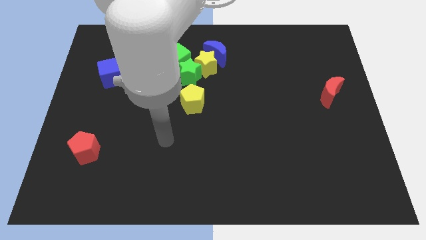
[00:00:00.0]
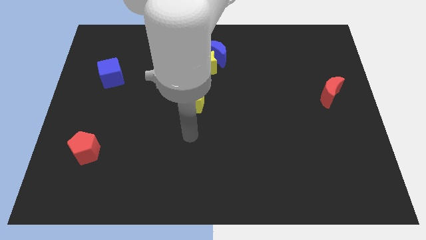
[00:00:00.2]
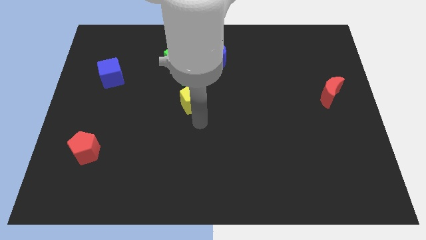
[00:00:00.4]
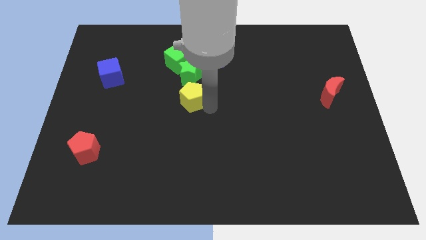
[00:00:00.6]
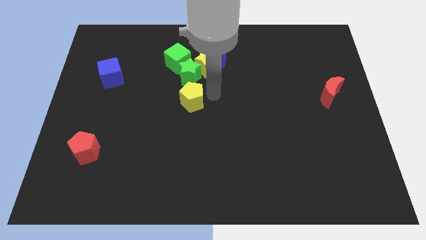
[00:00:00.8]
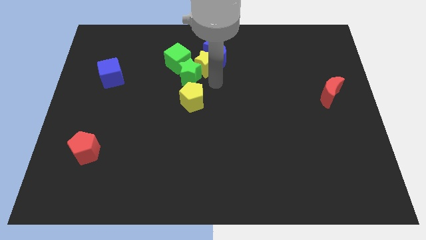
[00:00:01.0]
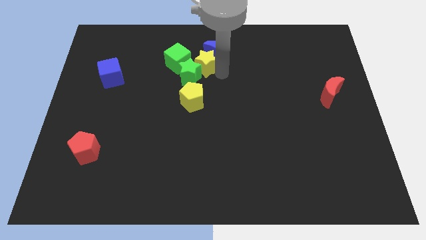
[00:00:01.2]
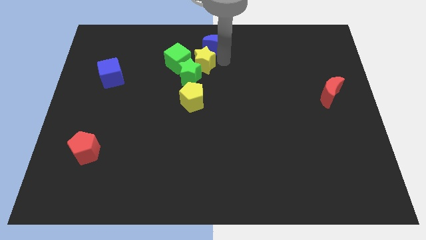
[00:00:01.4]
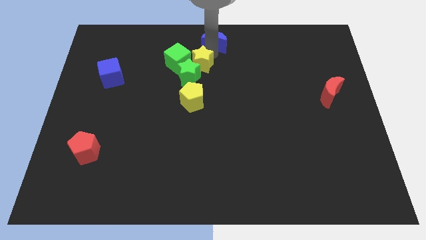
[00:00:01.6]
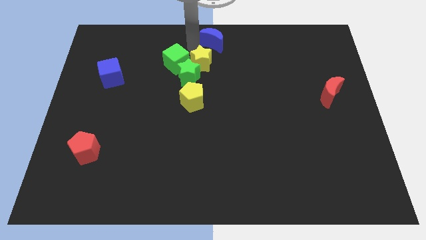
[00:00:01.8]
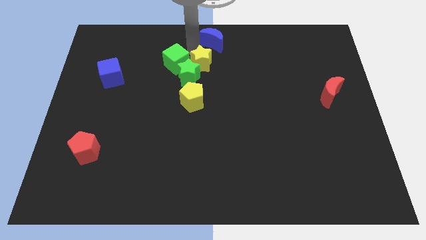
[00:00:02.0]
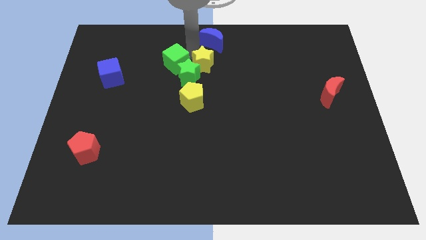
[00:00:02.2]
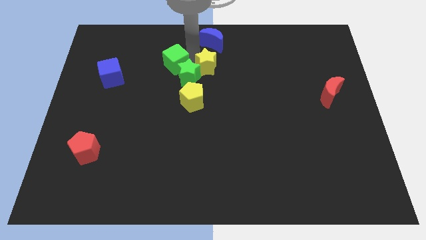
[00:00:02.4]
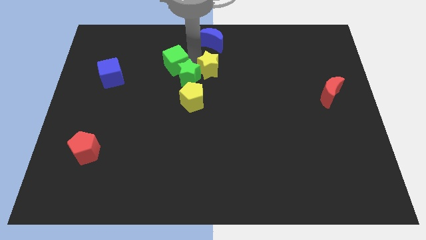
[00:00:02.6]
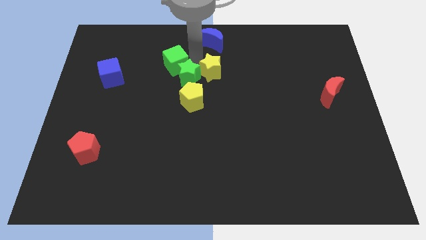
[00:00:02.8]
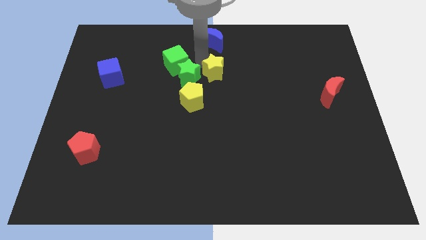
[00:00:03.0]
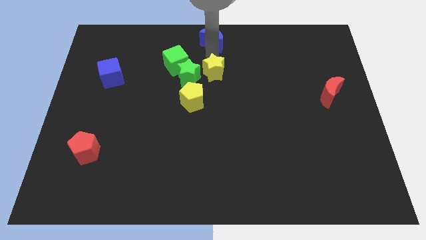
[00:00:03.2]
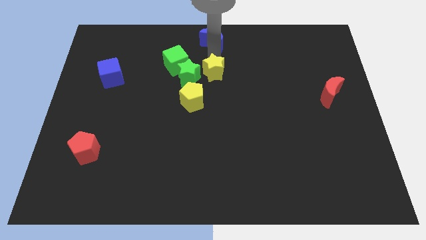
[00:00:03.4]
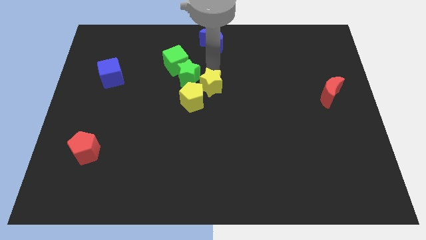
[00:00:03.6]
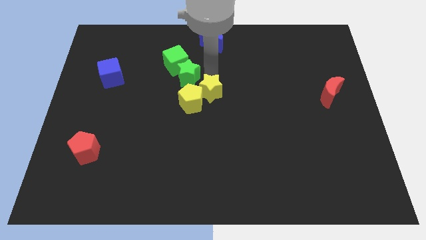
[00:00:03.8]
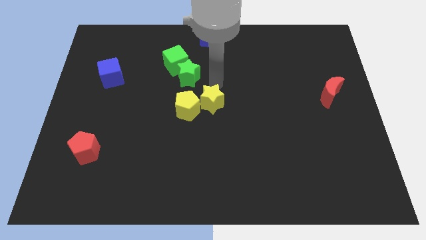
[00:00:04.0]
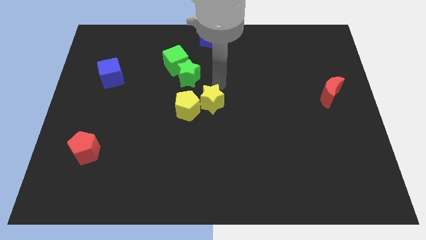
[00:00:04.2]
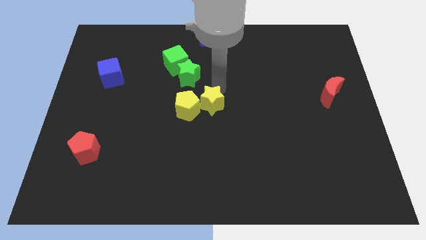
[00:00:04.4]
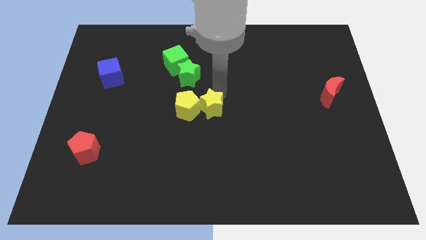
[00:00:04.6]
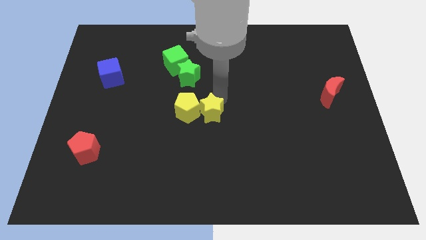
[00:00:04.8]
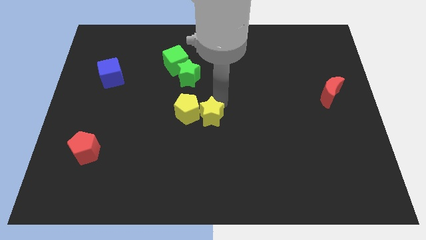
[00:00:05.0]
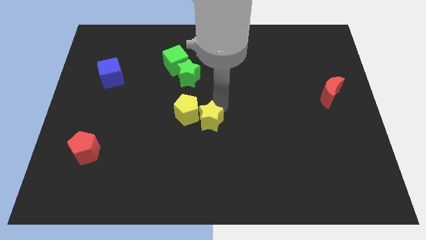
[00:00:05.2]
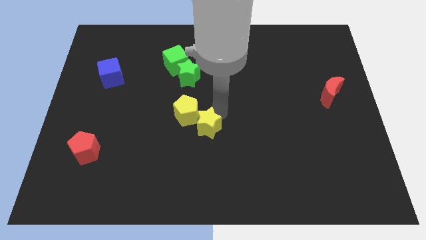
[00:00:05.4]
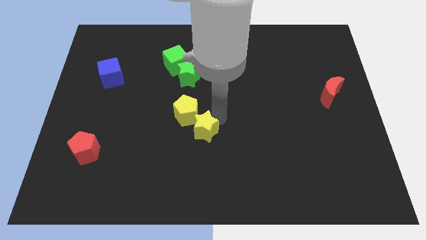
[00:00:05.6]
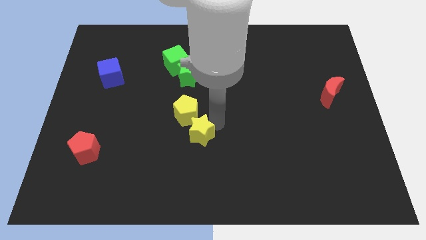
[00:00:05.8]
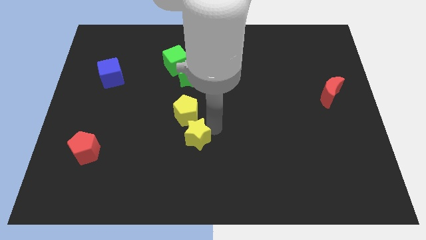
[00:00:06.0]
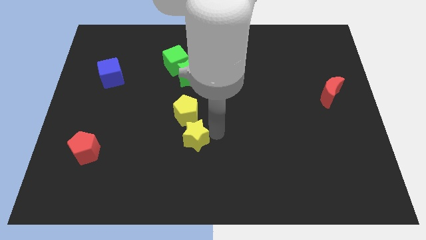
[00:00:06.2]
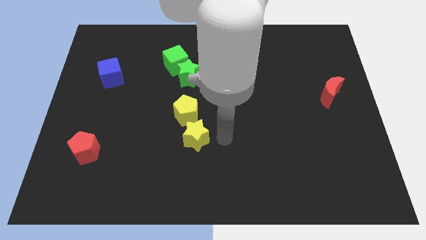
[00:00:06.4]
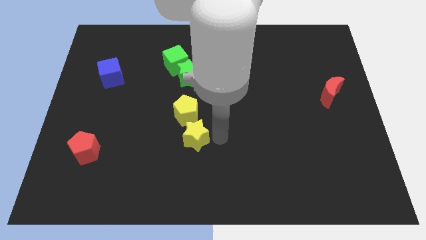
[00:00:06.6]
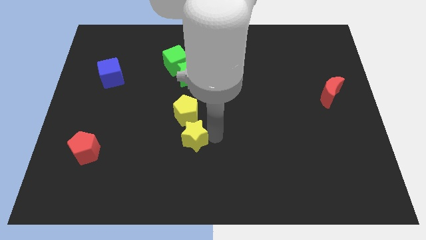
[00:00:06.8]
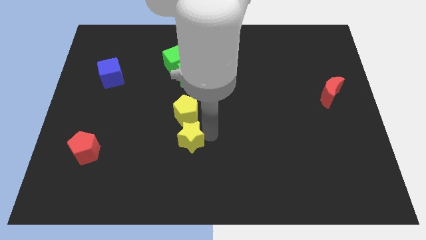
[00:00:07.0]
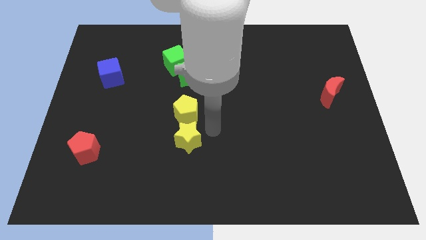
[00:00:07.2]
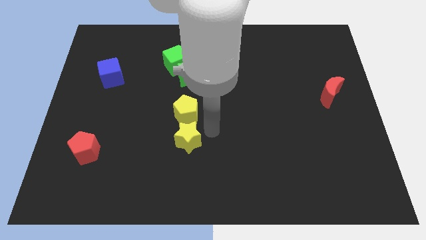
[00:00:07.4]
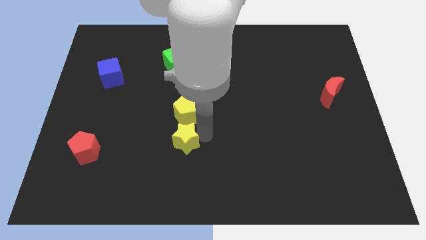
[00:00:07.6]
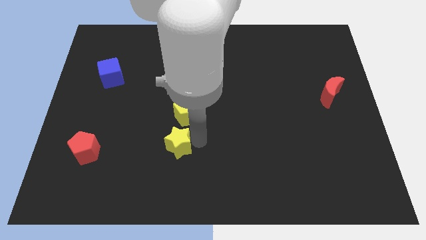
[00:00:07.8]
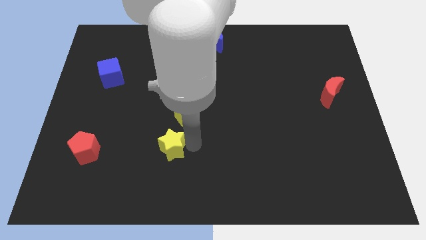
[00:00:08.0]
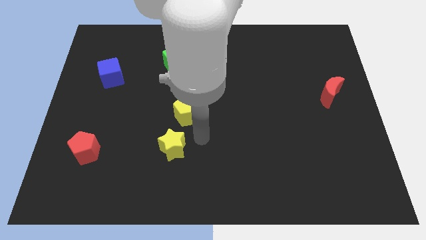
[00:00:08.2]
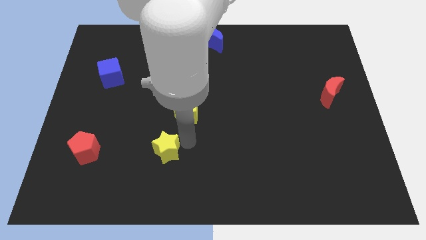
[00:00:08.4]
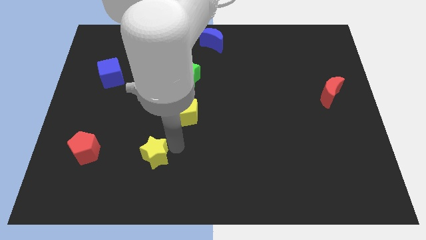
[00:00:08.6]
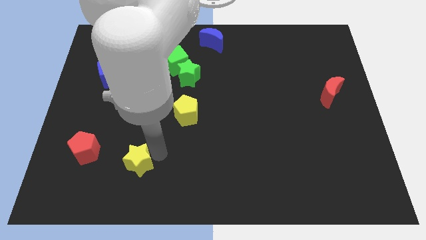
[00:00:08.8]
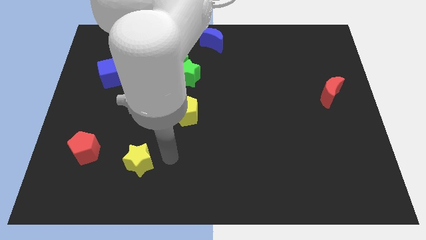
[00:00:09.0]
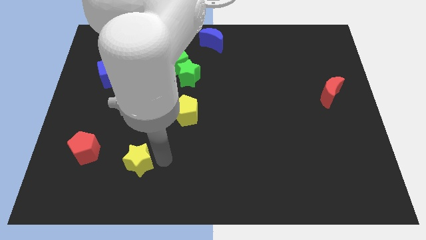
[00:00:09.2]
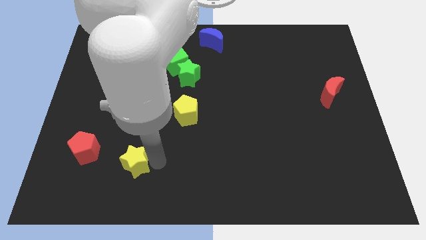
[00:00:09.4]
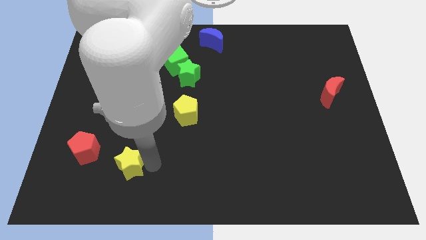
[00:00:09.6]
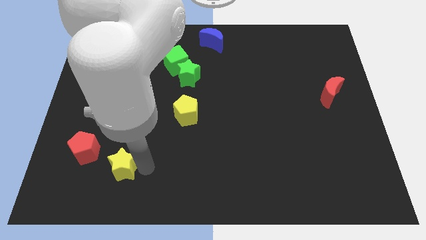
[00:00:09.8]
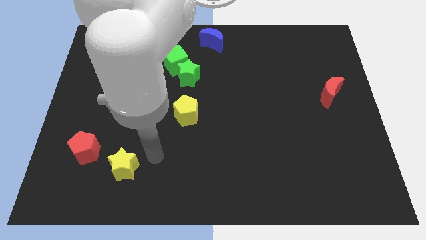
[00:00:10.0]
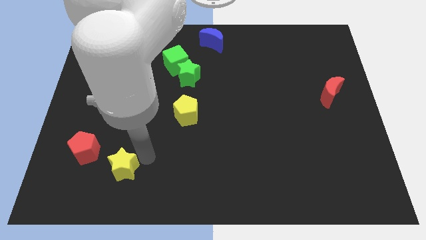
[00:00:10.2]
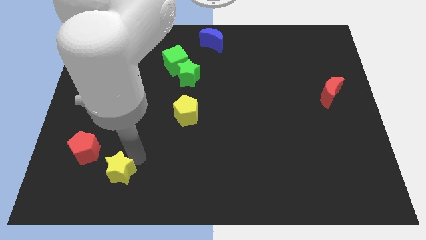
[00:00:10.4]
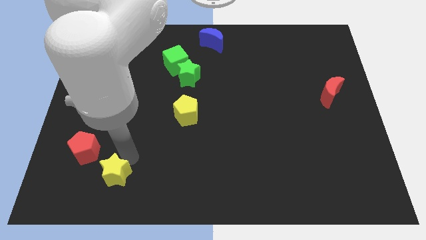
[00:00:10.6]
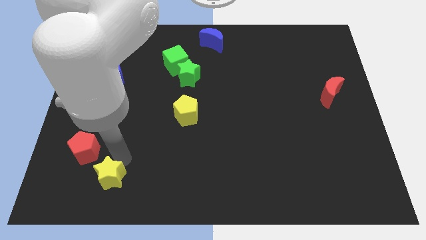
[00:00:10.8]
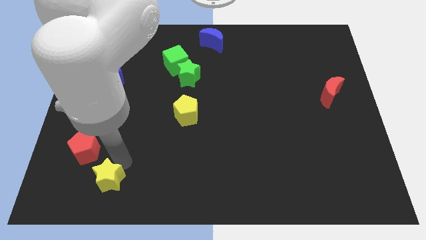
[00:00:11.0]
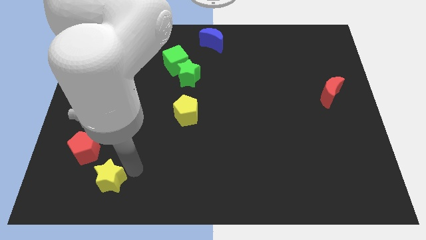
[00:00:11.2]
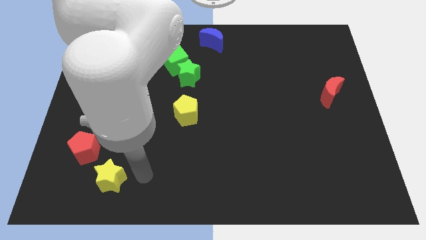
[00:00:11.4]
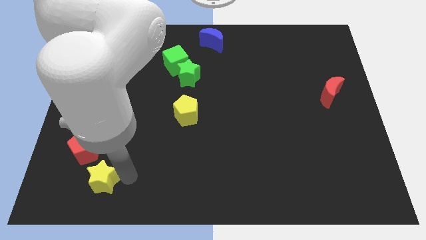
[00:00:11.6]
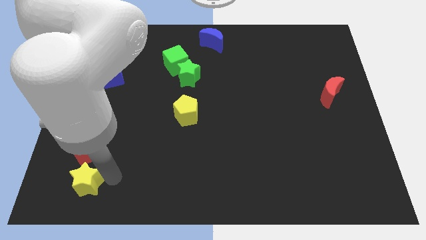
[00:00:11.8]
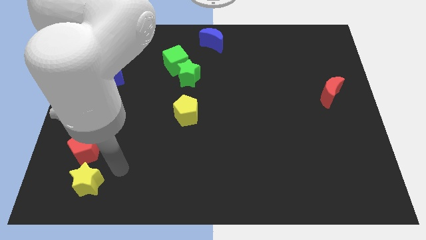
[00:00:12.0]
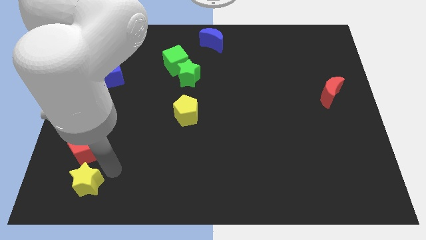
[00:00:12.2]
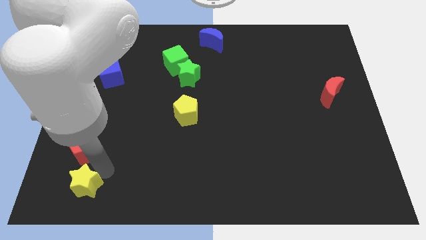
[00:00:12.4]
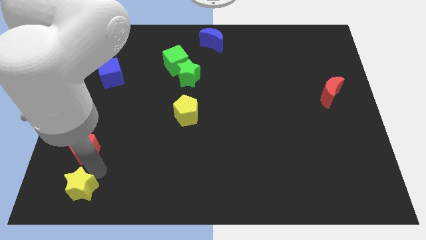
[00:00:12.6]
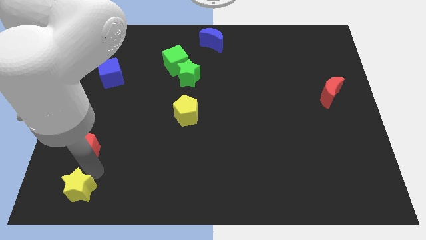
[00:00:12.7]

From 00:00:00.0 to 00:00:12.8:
push the yellow star to the bottom left

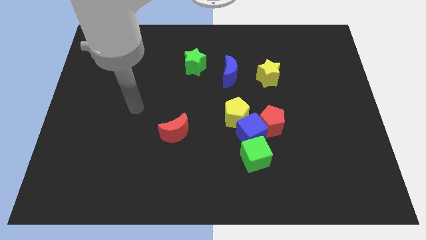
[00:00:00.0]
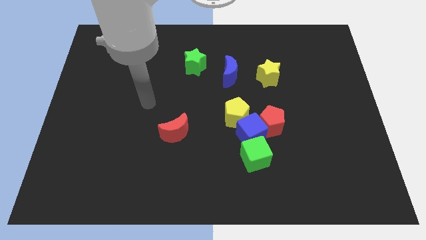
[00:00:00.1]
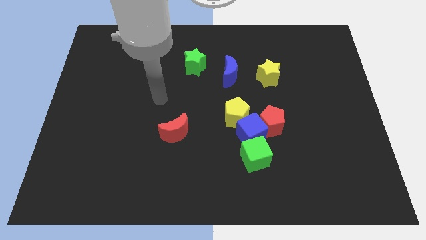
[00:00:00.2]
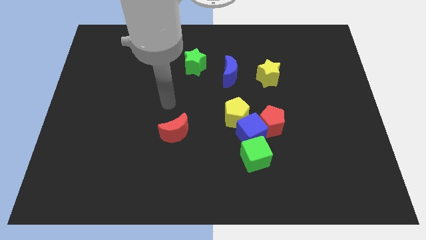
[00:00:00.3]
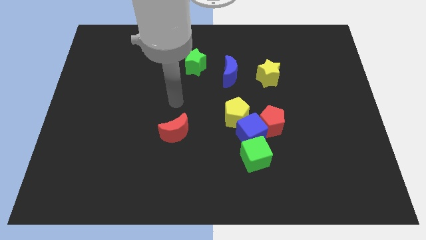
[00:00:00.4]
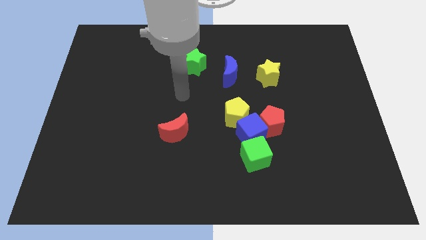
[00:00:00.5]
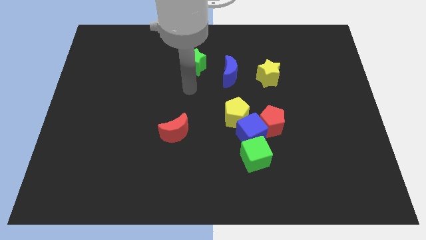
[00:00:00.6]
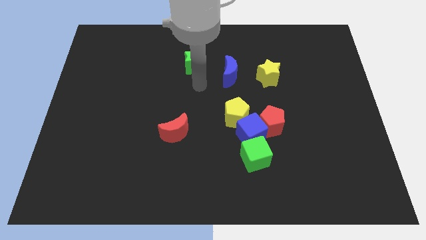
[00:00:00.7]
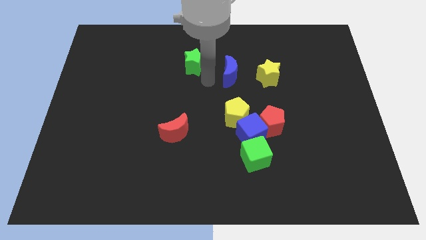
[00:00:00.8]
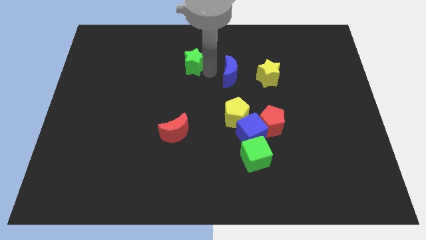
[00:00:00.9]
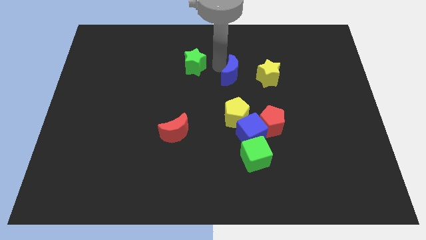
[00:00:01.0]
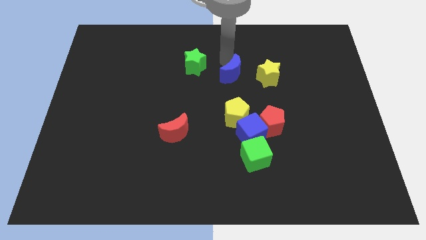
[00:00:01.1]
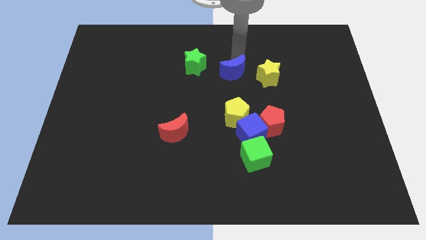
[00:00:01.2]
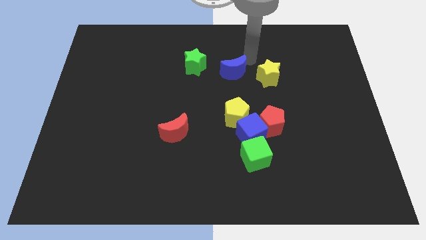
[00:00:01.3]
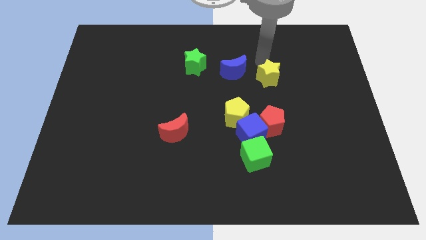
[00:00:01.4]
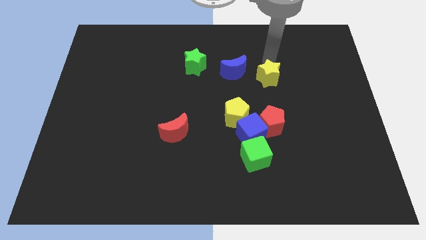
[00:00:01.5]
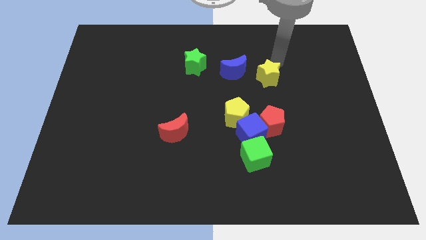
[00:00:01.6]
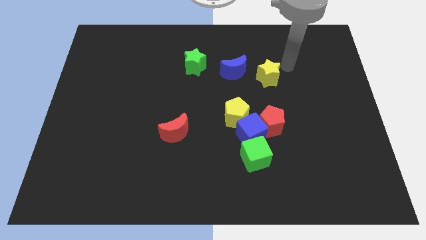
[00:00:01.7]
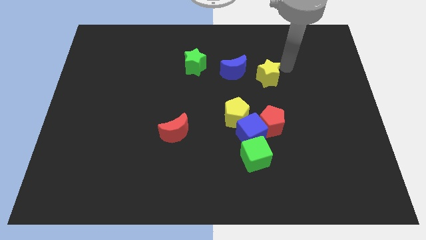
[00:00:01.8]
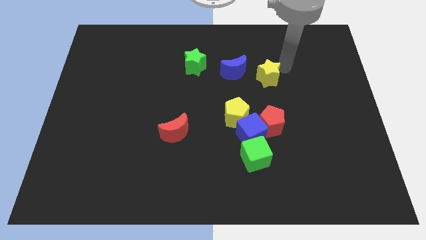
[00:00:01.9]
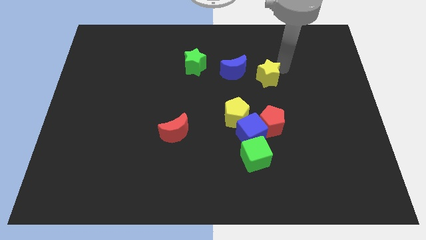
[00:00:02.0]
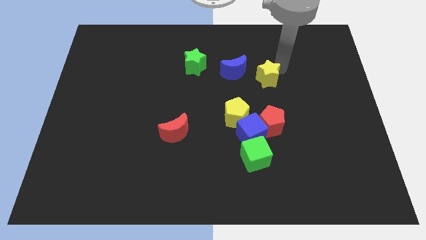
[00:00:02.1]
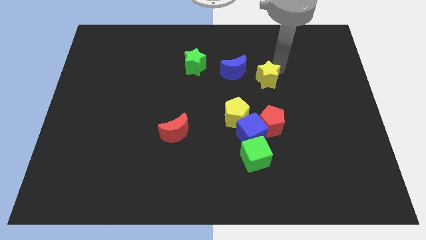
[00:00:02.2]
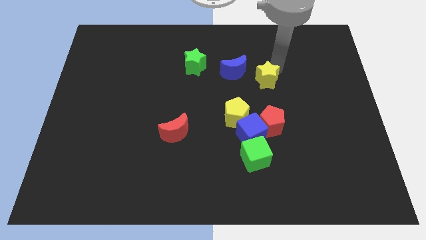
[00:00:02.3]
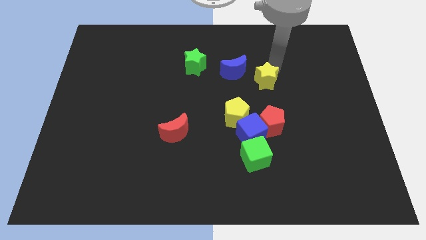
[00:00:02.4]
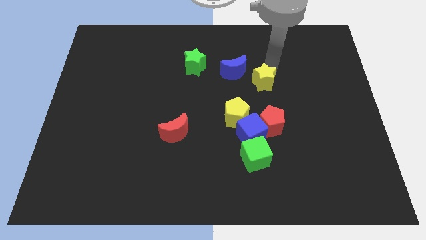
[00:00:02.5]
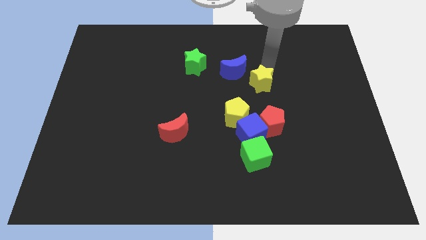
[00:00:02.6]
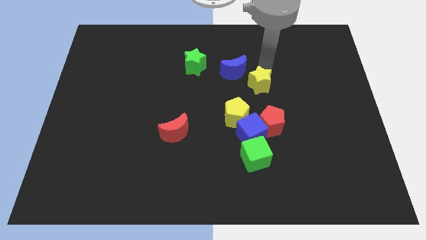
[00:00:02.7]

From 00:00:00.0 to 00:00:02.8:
move the yellow star to the center of the board
